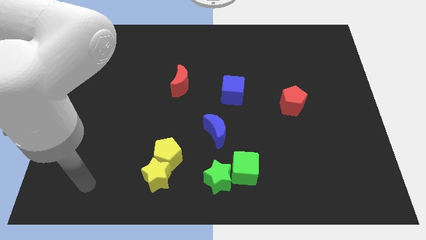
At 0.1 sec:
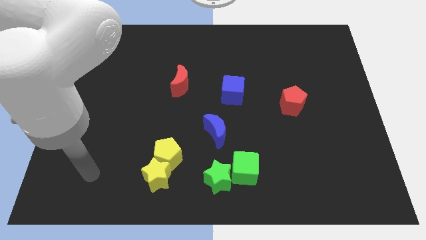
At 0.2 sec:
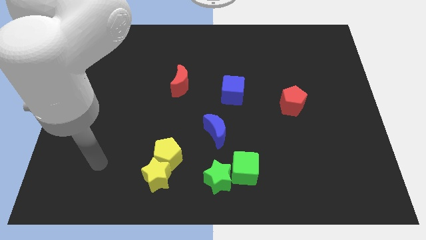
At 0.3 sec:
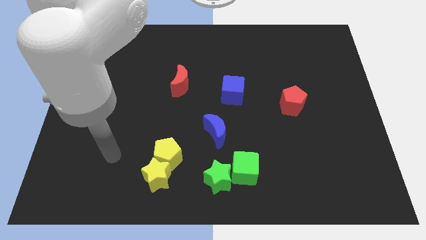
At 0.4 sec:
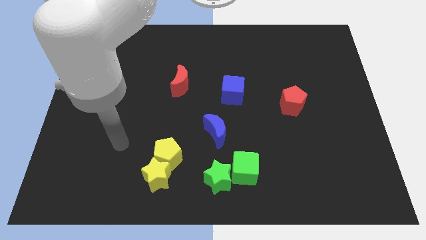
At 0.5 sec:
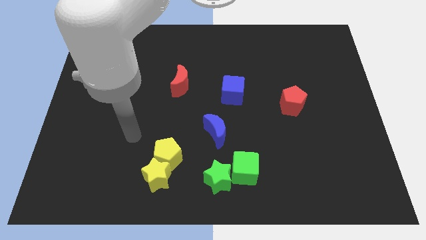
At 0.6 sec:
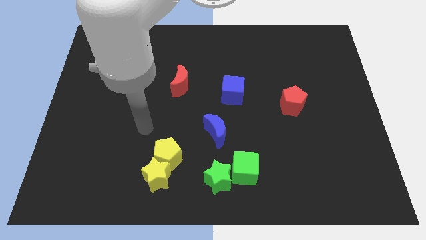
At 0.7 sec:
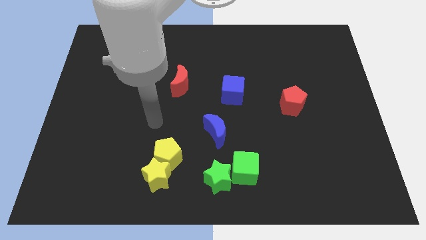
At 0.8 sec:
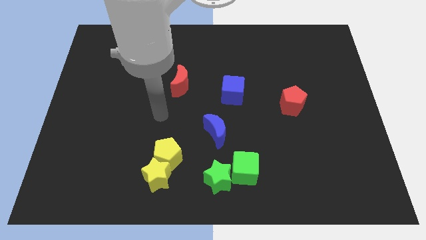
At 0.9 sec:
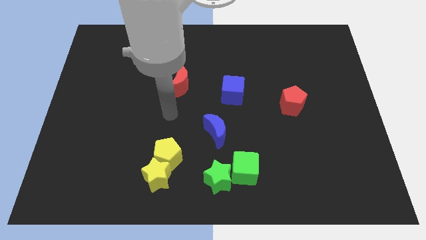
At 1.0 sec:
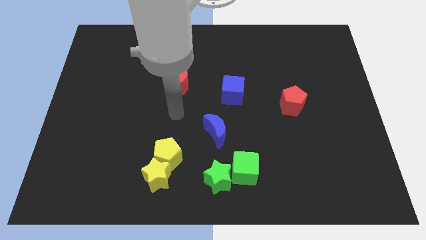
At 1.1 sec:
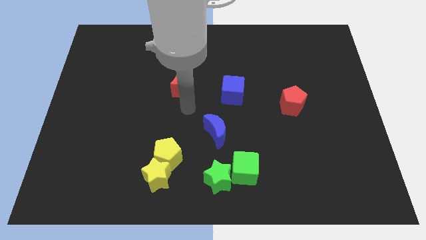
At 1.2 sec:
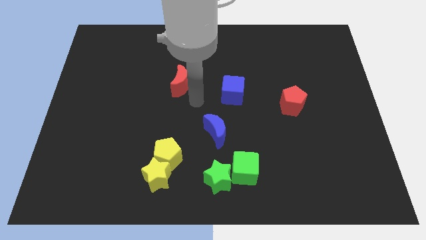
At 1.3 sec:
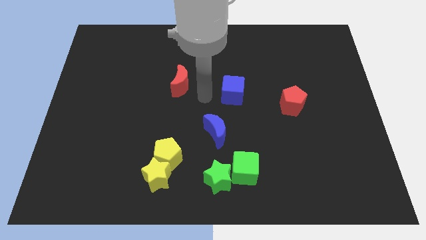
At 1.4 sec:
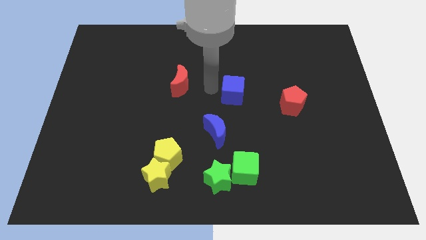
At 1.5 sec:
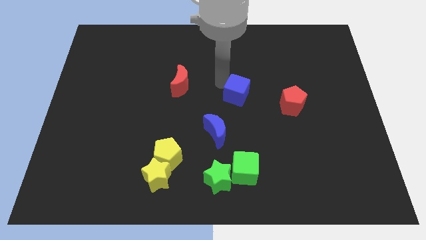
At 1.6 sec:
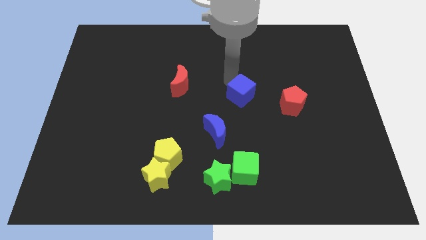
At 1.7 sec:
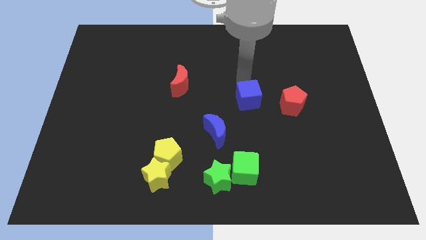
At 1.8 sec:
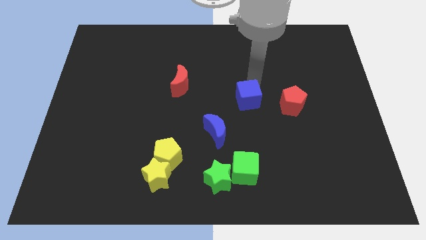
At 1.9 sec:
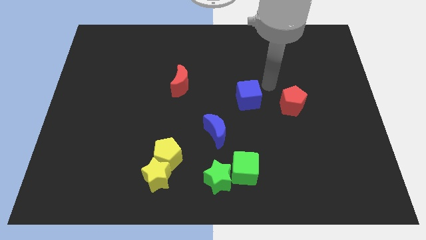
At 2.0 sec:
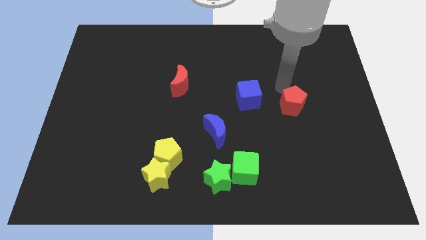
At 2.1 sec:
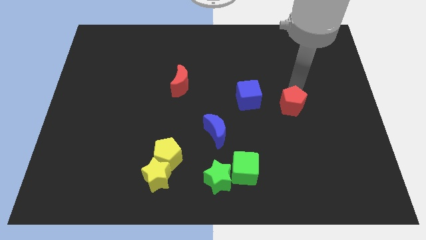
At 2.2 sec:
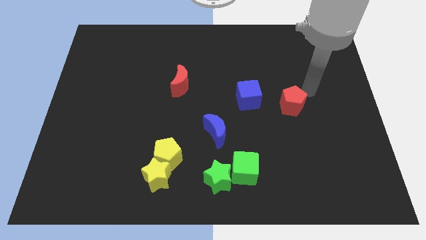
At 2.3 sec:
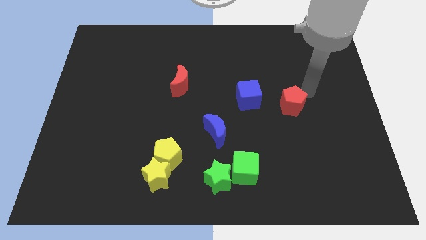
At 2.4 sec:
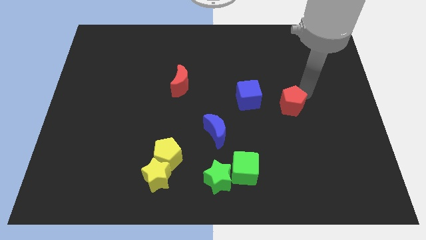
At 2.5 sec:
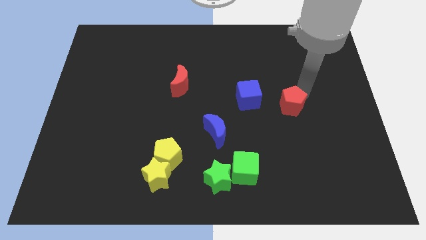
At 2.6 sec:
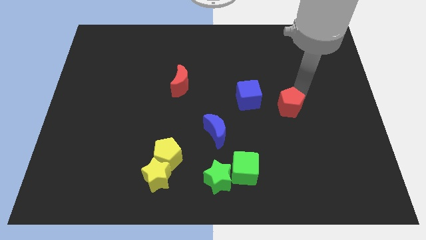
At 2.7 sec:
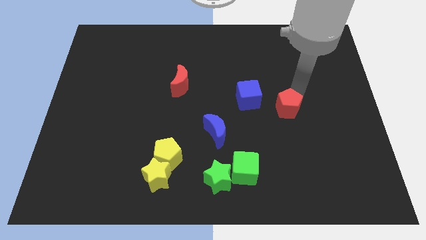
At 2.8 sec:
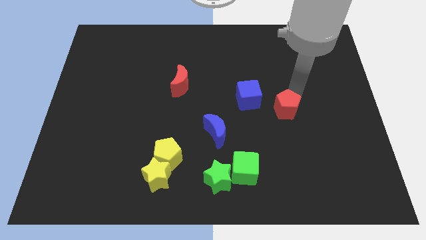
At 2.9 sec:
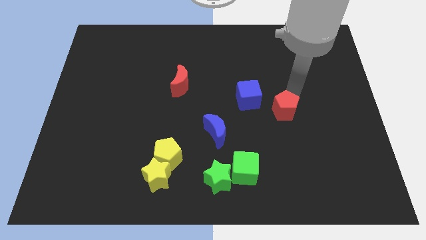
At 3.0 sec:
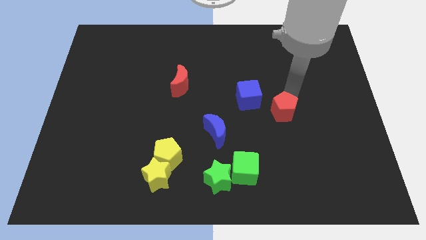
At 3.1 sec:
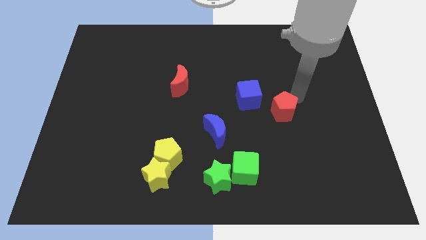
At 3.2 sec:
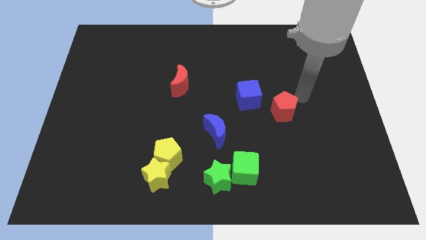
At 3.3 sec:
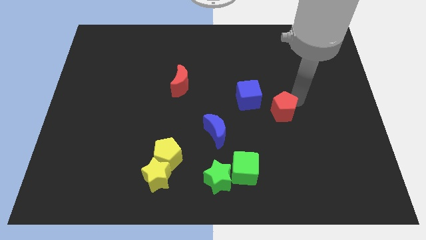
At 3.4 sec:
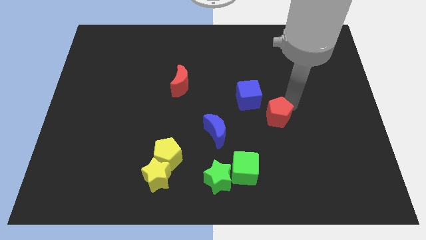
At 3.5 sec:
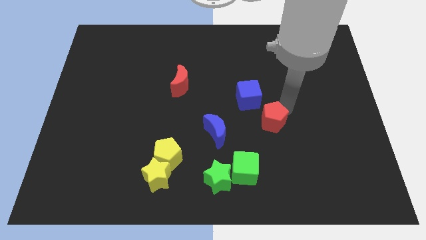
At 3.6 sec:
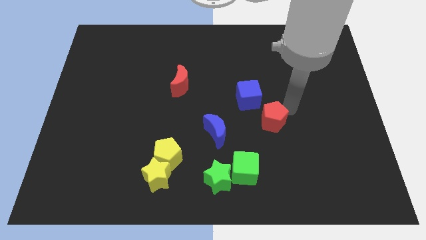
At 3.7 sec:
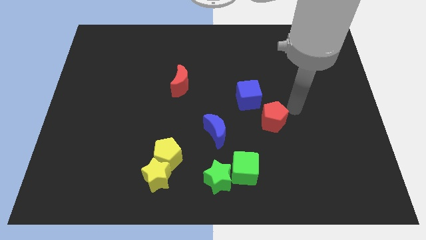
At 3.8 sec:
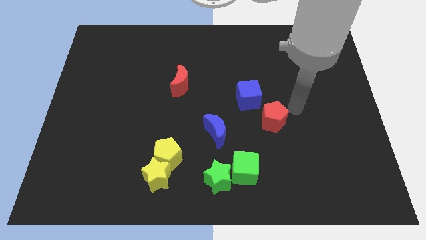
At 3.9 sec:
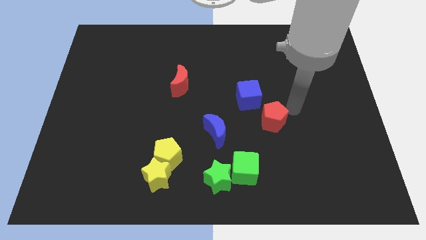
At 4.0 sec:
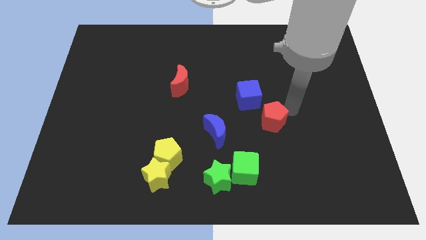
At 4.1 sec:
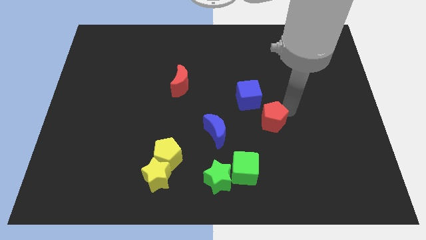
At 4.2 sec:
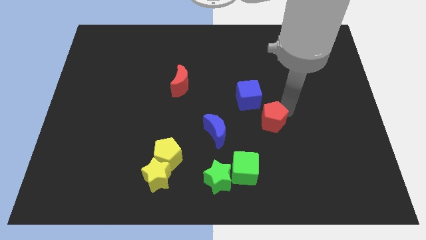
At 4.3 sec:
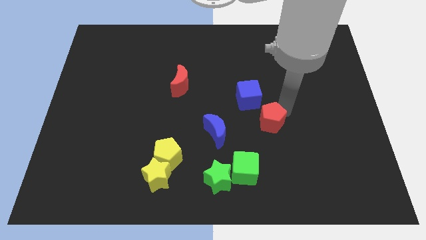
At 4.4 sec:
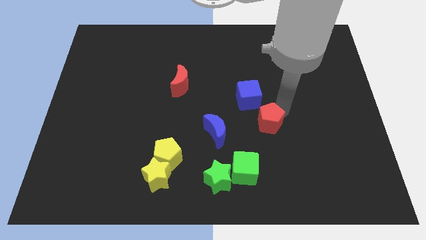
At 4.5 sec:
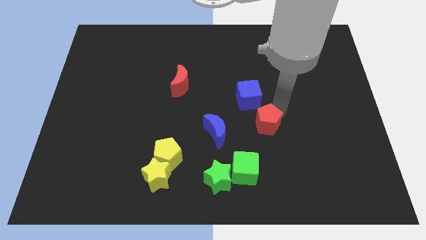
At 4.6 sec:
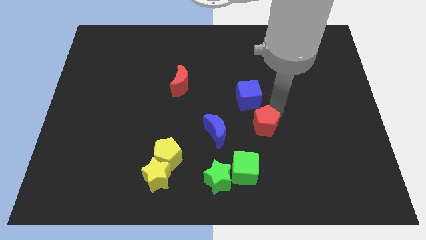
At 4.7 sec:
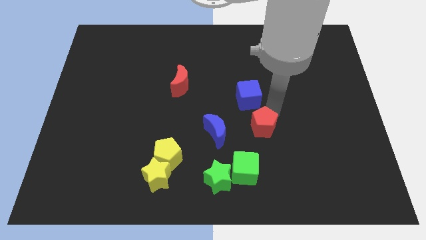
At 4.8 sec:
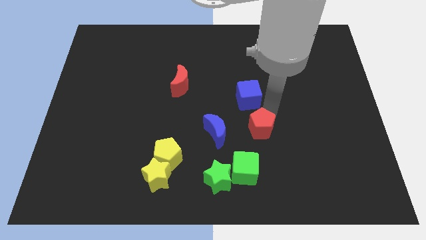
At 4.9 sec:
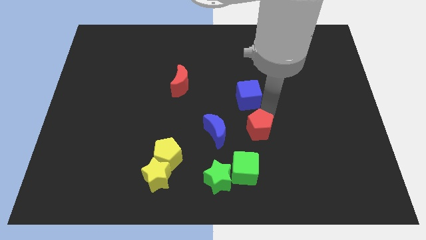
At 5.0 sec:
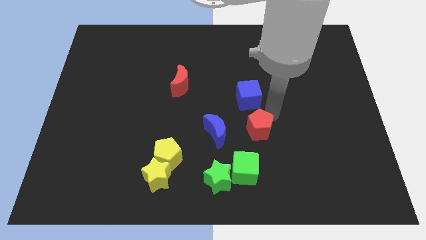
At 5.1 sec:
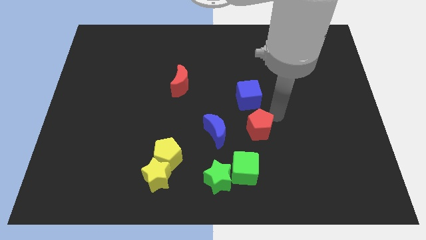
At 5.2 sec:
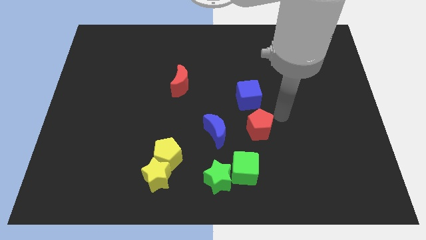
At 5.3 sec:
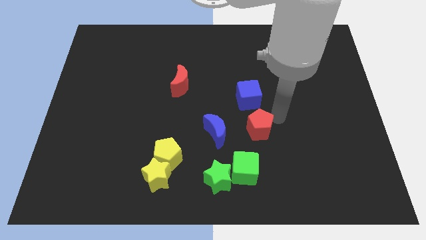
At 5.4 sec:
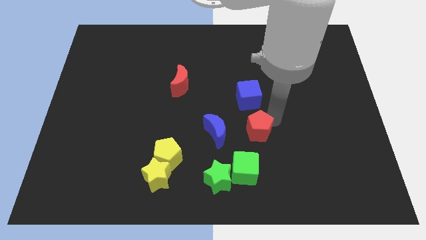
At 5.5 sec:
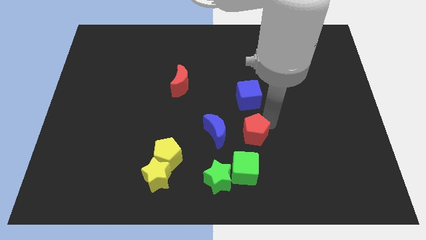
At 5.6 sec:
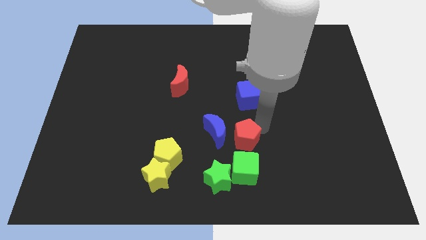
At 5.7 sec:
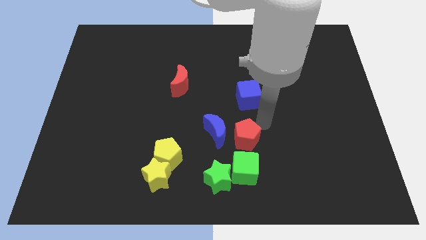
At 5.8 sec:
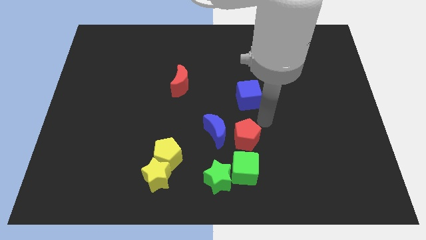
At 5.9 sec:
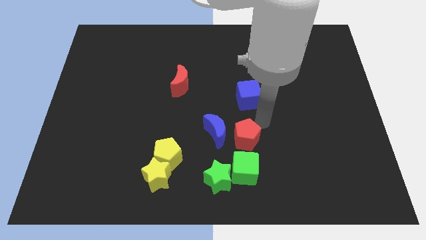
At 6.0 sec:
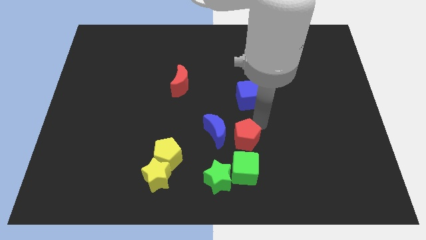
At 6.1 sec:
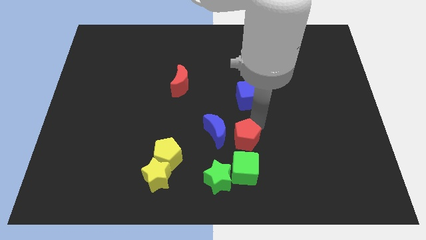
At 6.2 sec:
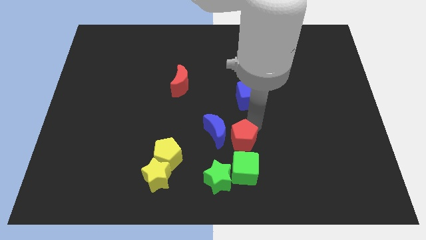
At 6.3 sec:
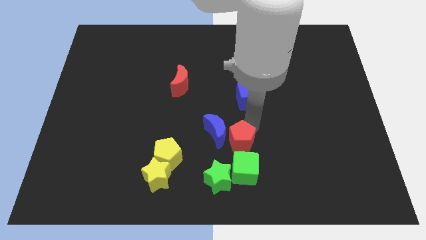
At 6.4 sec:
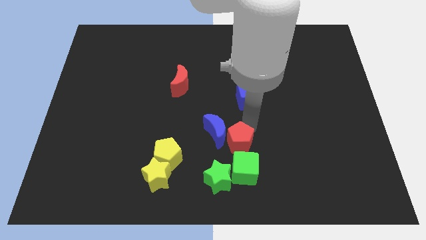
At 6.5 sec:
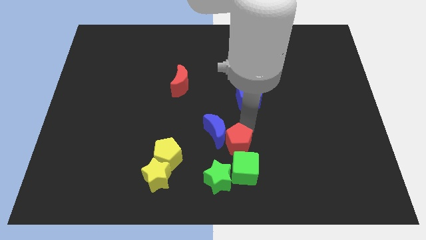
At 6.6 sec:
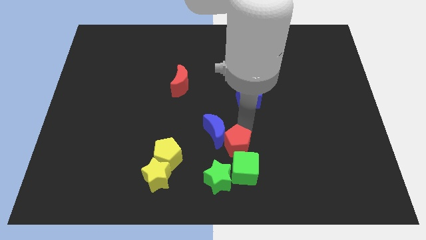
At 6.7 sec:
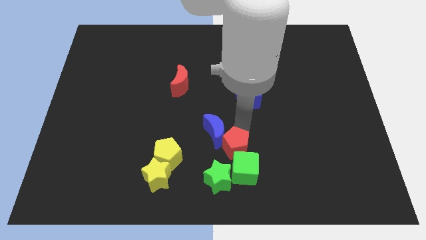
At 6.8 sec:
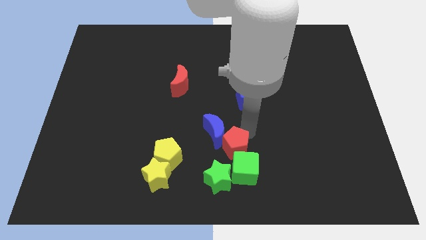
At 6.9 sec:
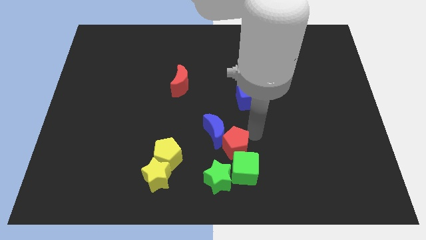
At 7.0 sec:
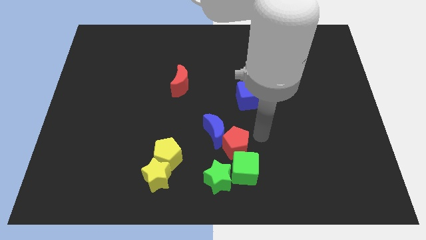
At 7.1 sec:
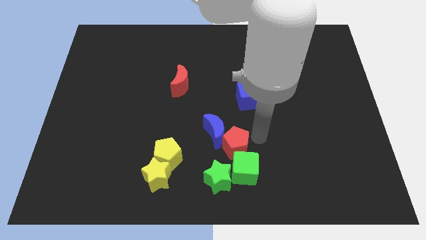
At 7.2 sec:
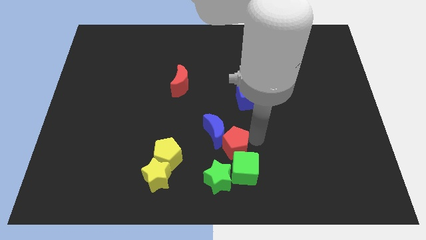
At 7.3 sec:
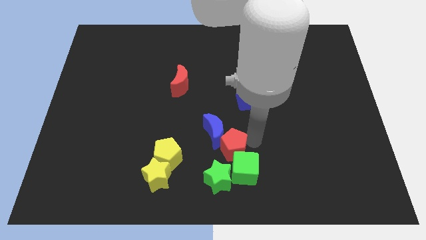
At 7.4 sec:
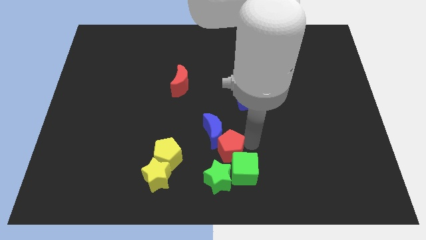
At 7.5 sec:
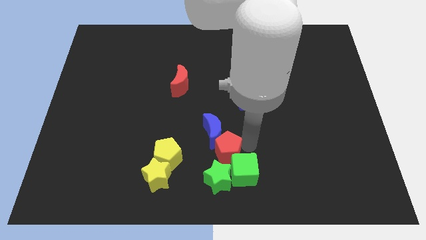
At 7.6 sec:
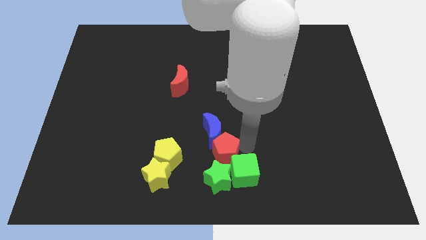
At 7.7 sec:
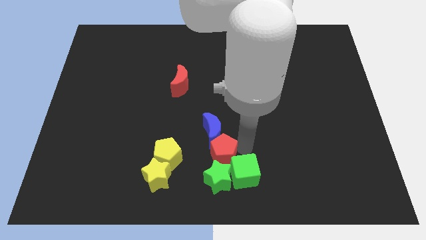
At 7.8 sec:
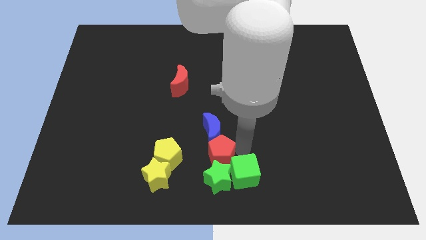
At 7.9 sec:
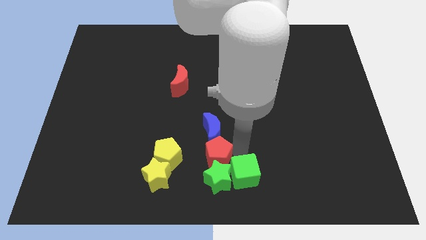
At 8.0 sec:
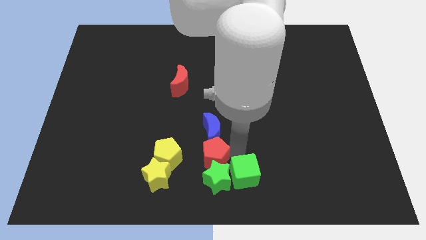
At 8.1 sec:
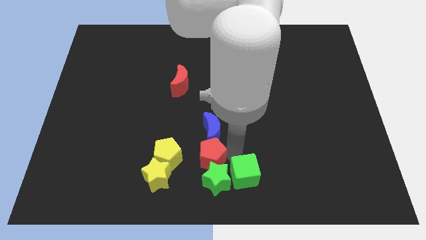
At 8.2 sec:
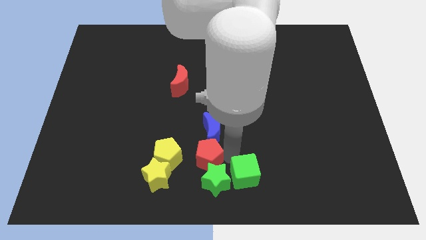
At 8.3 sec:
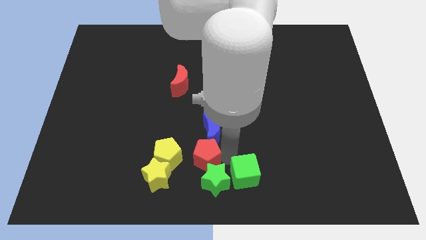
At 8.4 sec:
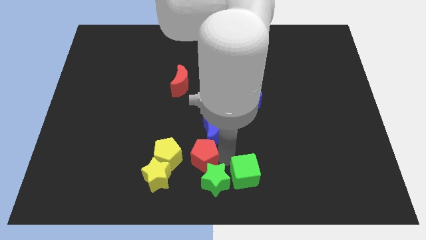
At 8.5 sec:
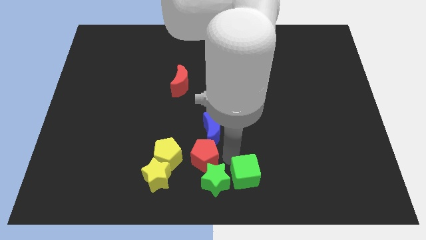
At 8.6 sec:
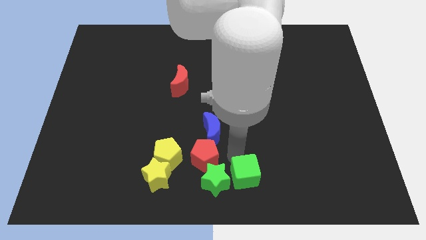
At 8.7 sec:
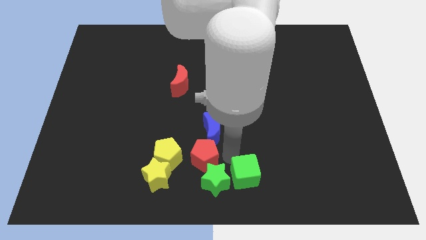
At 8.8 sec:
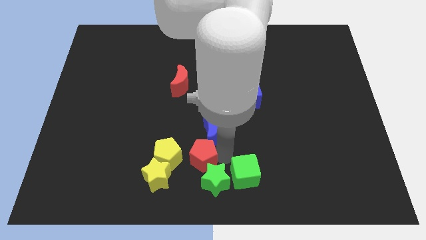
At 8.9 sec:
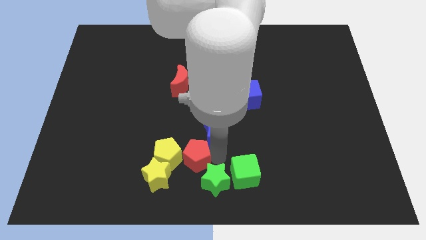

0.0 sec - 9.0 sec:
slide the red pentagon close to the yellow pentagon
